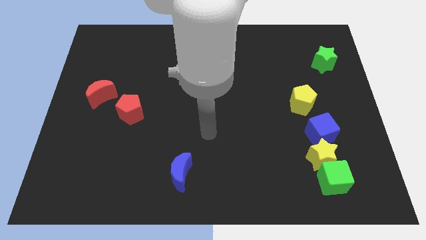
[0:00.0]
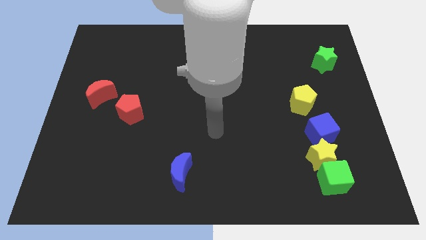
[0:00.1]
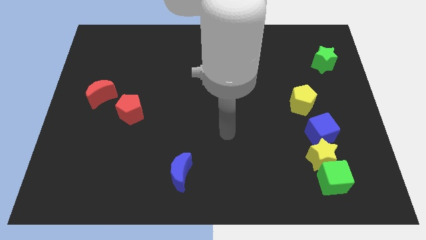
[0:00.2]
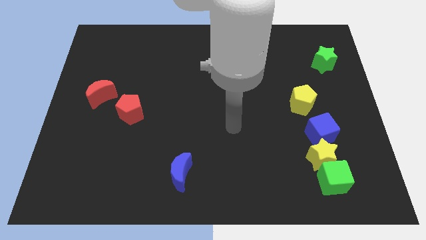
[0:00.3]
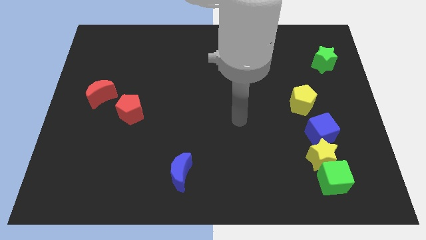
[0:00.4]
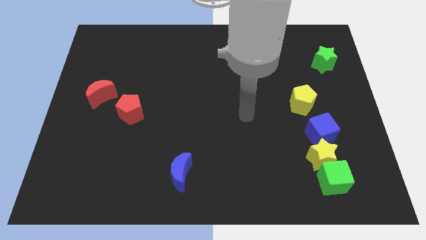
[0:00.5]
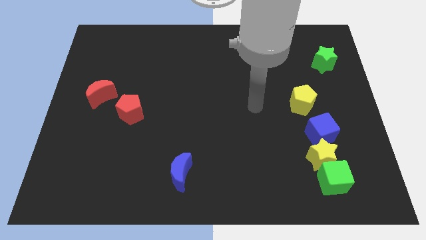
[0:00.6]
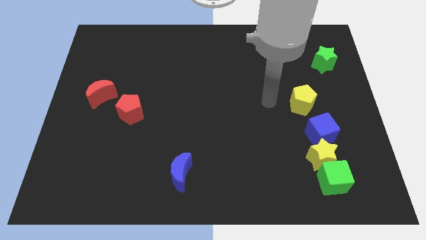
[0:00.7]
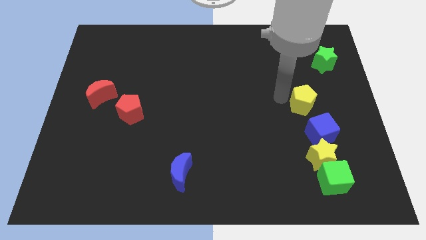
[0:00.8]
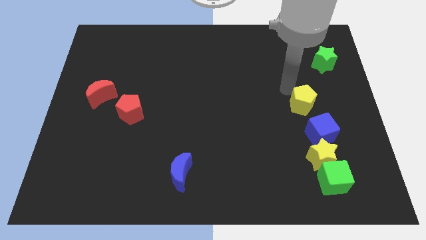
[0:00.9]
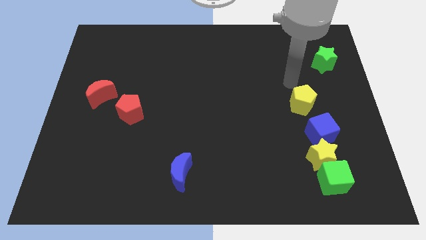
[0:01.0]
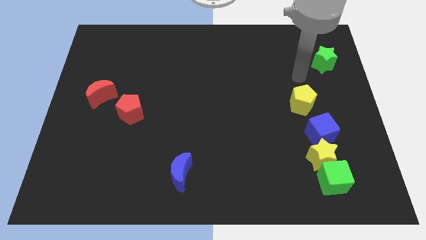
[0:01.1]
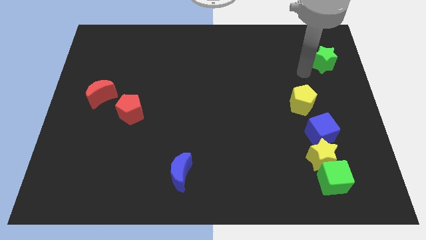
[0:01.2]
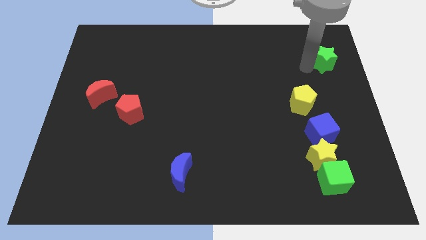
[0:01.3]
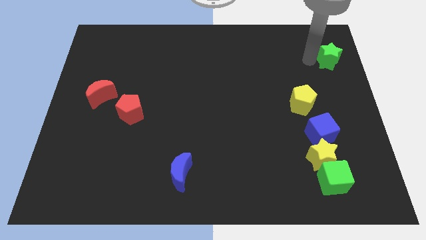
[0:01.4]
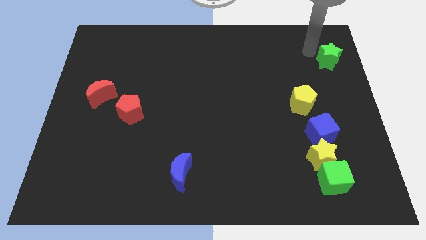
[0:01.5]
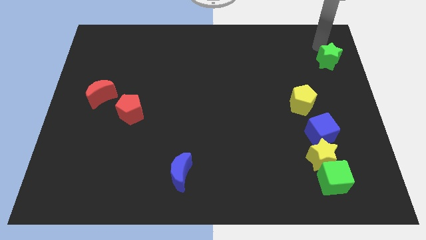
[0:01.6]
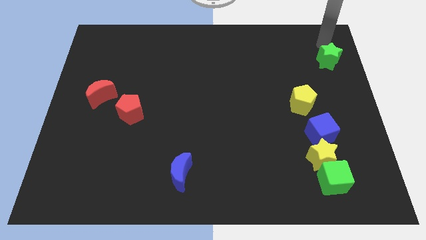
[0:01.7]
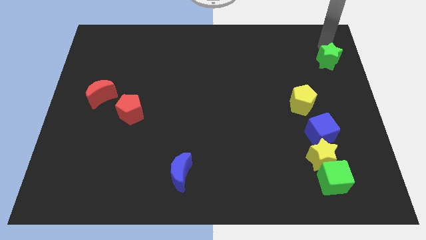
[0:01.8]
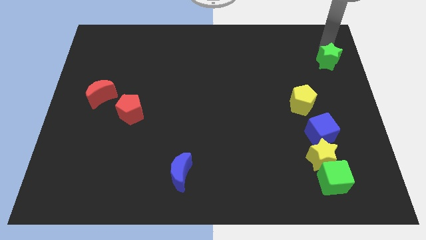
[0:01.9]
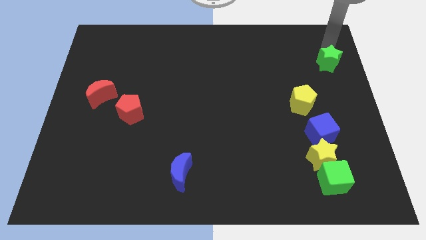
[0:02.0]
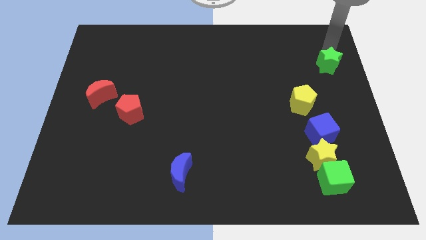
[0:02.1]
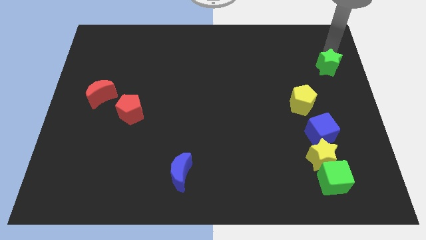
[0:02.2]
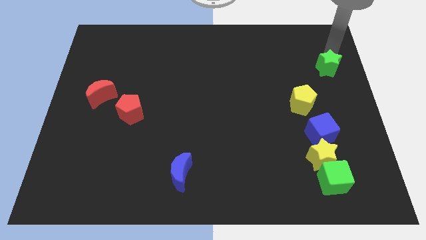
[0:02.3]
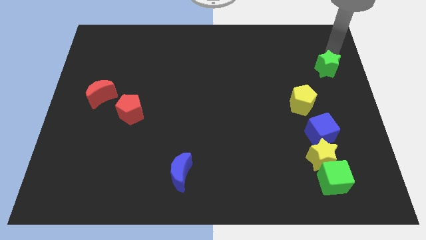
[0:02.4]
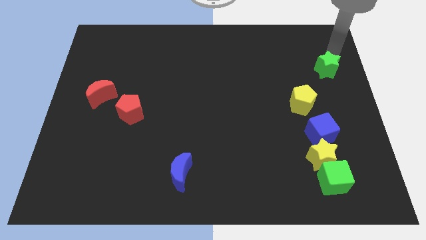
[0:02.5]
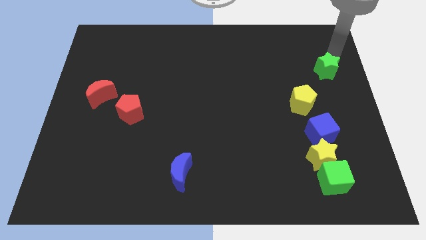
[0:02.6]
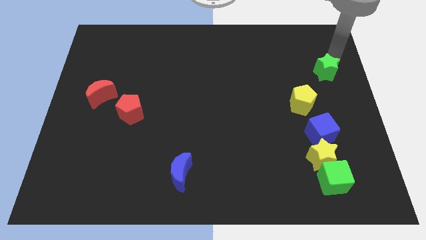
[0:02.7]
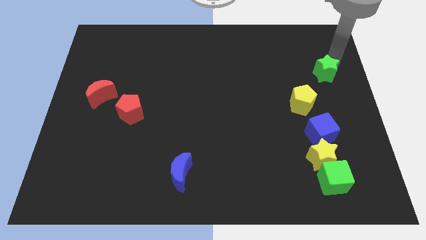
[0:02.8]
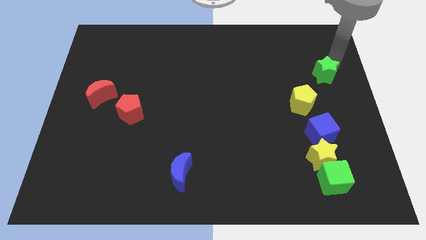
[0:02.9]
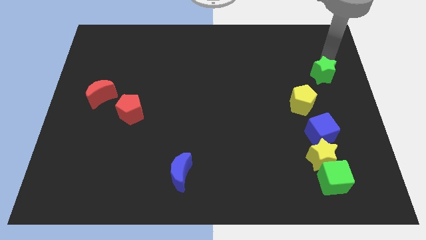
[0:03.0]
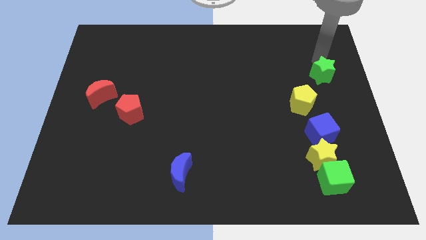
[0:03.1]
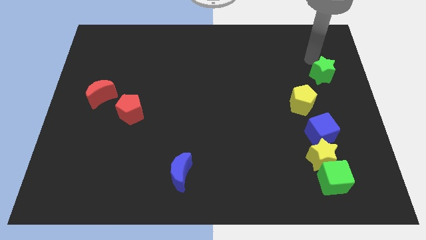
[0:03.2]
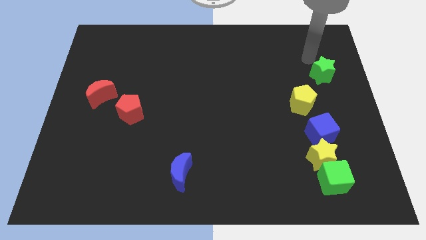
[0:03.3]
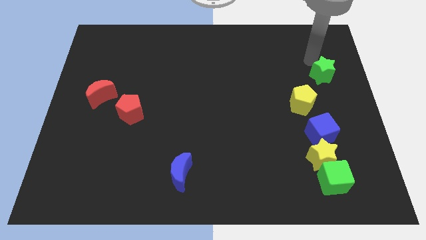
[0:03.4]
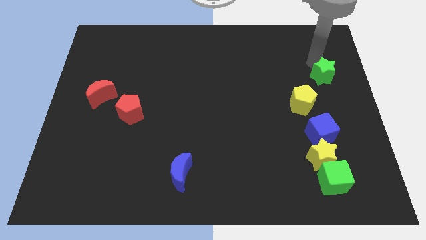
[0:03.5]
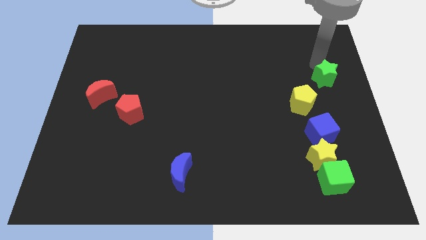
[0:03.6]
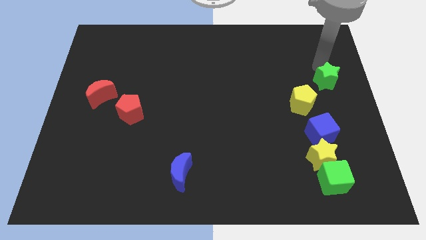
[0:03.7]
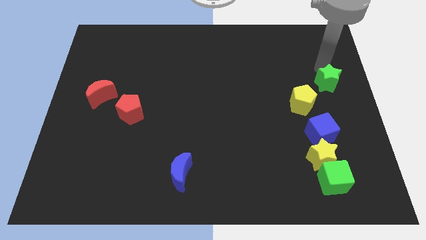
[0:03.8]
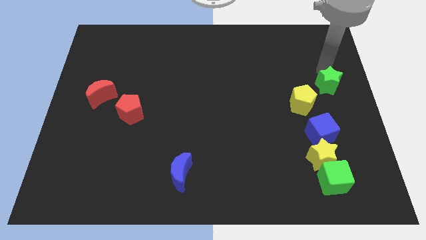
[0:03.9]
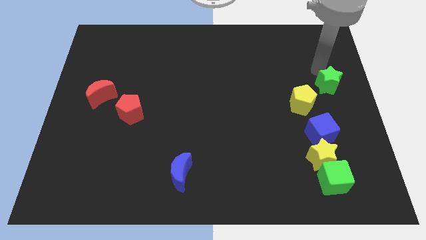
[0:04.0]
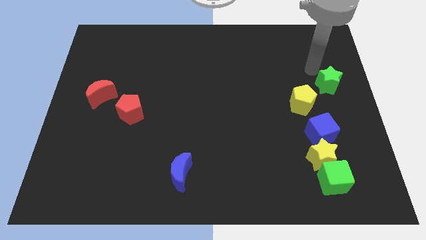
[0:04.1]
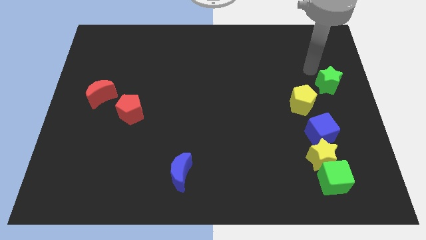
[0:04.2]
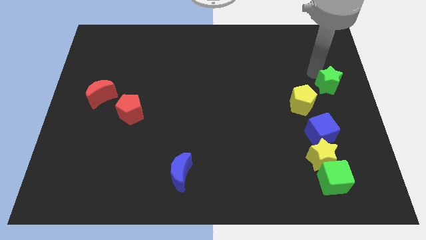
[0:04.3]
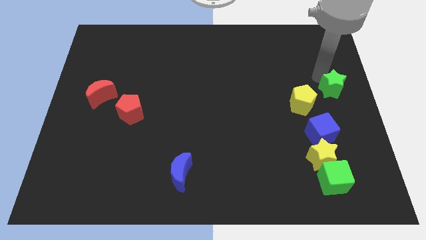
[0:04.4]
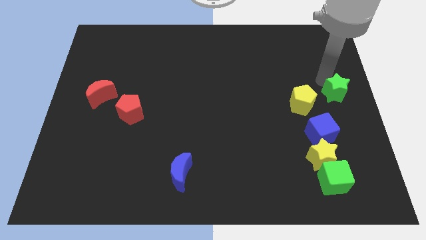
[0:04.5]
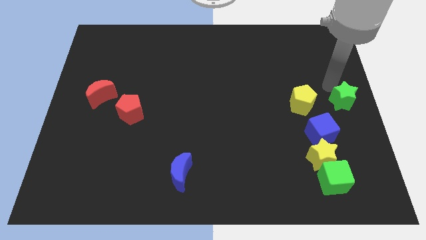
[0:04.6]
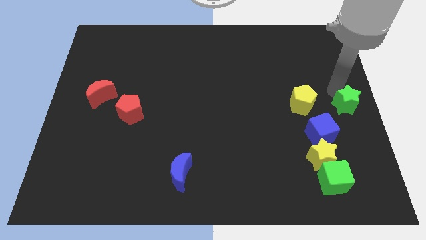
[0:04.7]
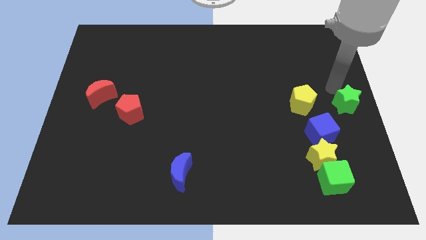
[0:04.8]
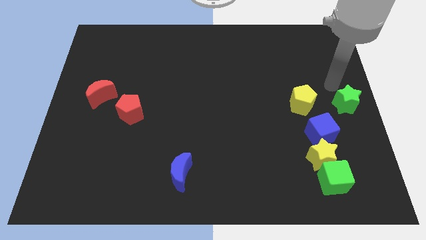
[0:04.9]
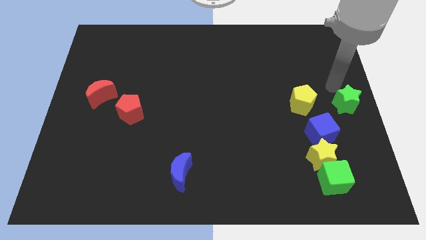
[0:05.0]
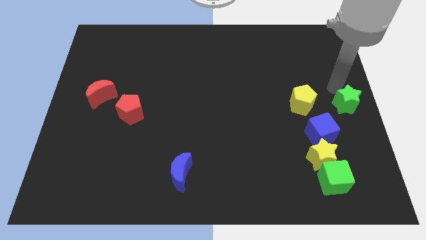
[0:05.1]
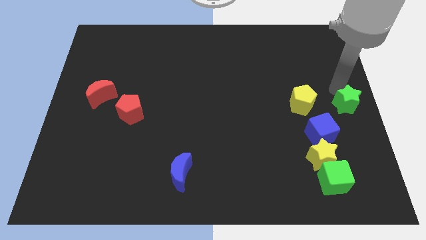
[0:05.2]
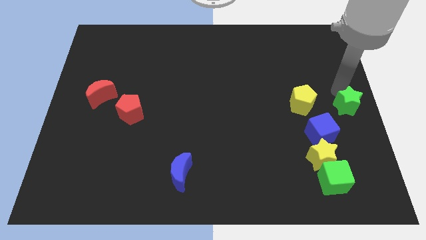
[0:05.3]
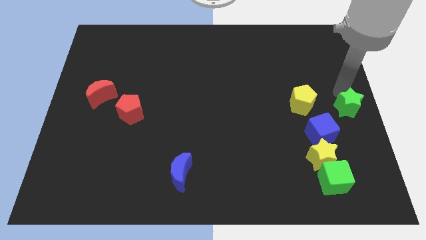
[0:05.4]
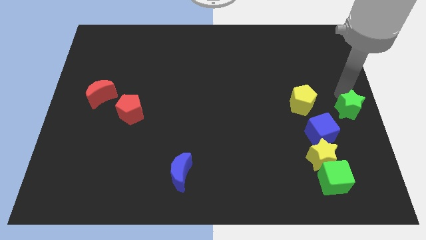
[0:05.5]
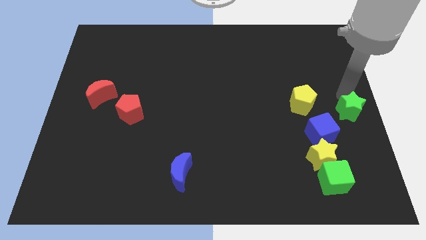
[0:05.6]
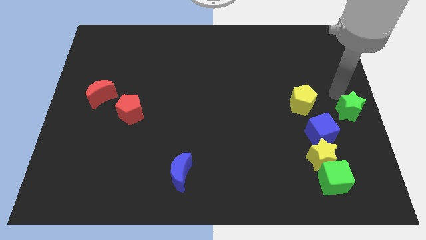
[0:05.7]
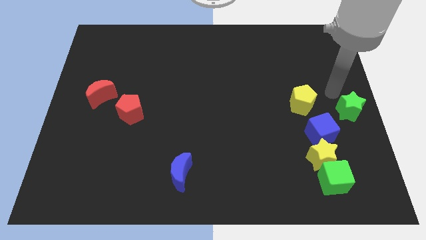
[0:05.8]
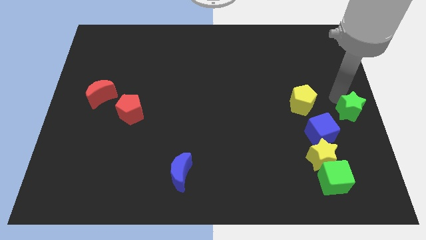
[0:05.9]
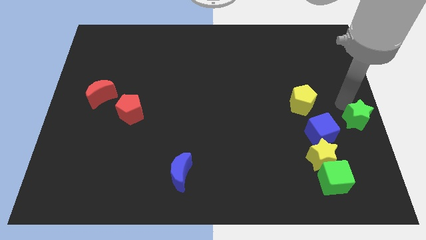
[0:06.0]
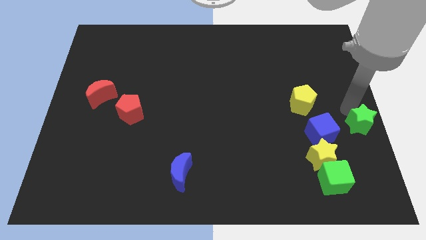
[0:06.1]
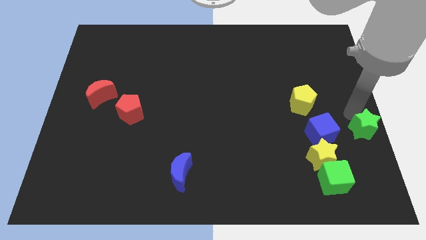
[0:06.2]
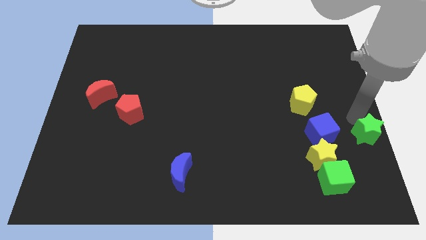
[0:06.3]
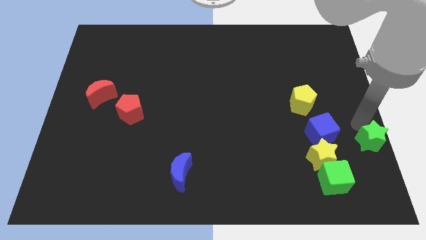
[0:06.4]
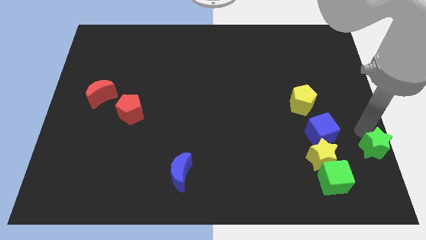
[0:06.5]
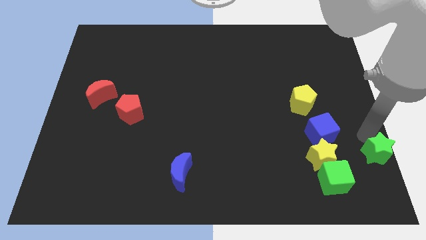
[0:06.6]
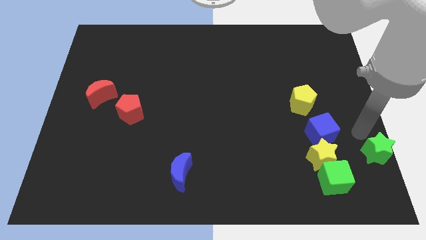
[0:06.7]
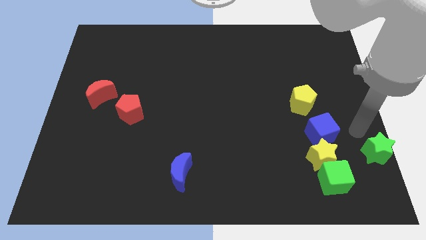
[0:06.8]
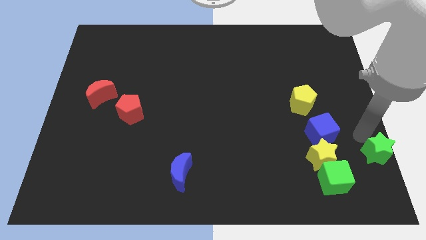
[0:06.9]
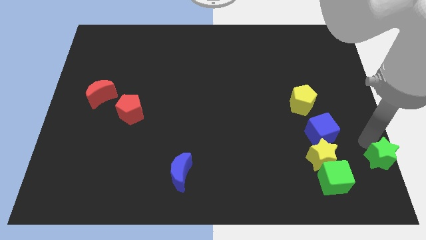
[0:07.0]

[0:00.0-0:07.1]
push the green star to the lower right corner
